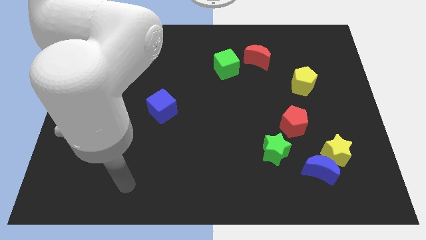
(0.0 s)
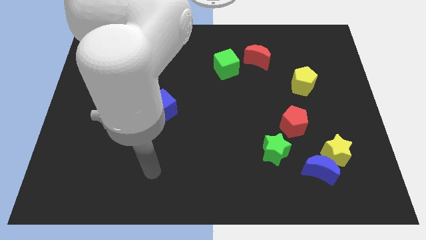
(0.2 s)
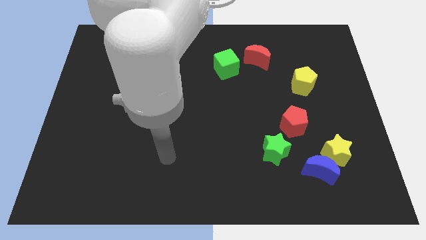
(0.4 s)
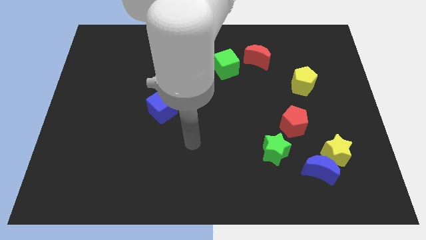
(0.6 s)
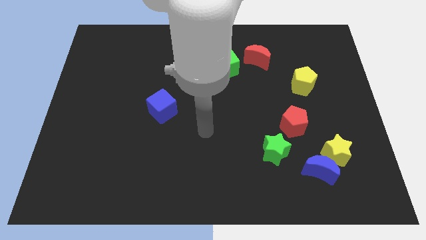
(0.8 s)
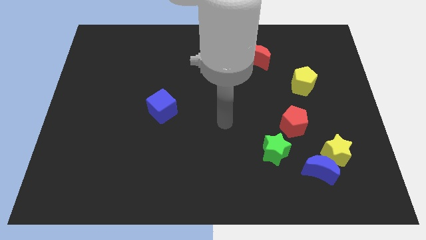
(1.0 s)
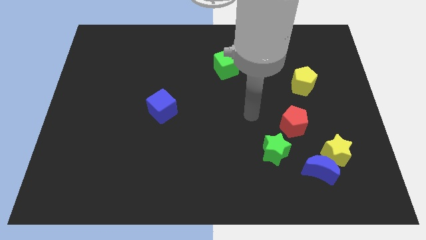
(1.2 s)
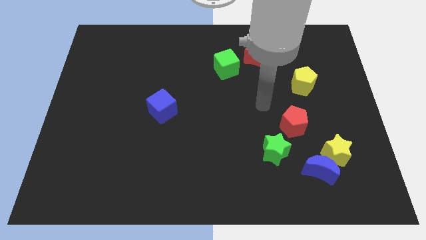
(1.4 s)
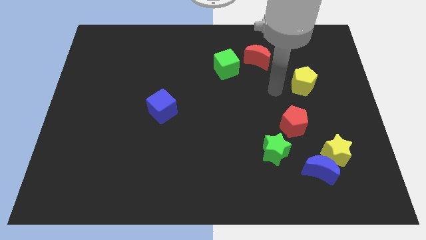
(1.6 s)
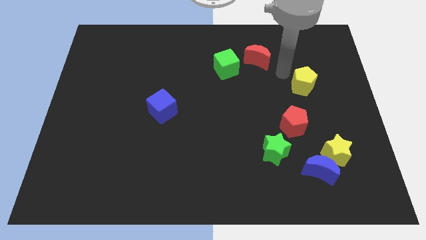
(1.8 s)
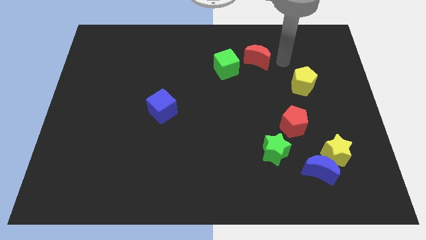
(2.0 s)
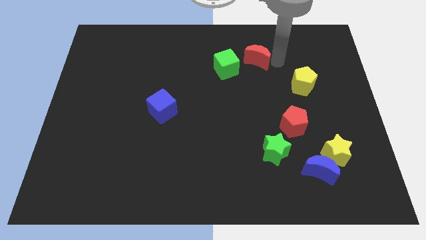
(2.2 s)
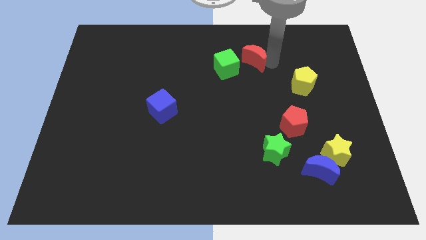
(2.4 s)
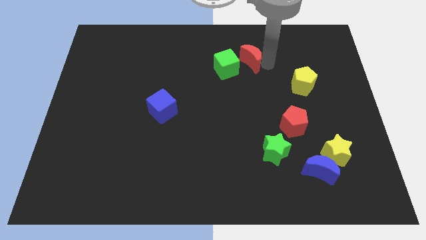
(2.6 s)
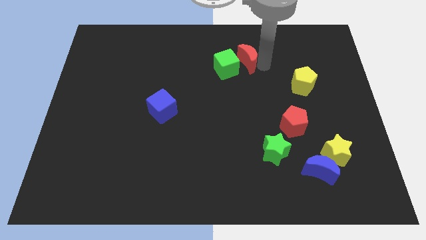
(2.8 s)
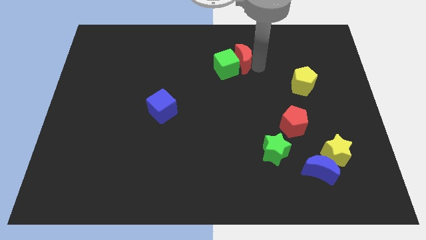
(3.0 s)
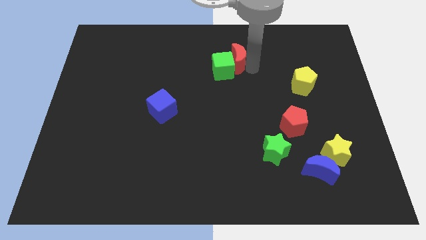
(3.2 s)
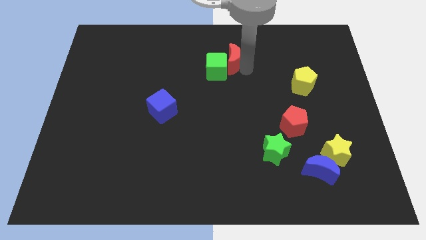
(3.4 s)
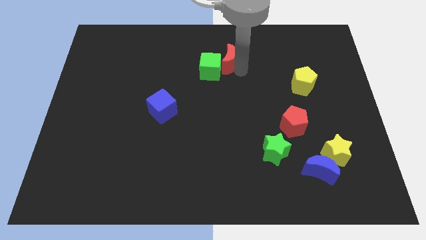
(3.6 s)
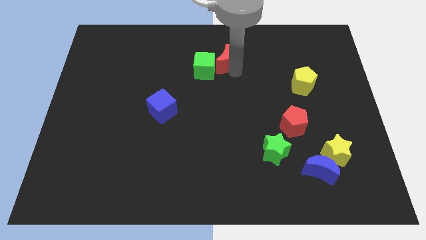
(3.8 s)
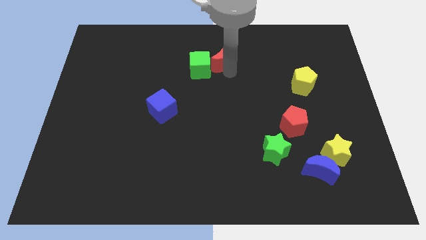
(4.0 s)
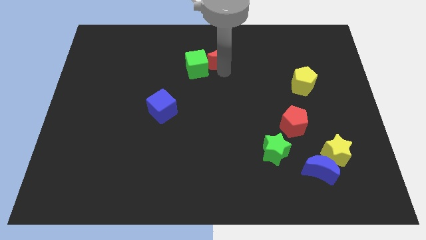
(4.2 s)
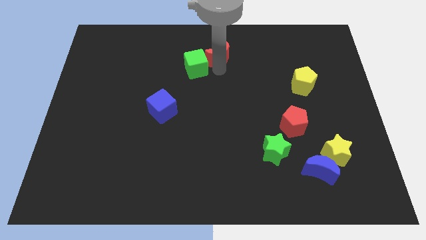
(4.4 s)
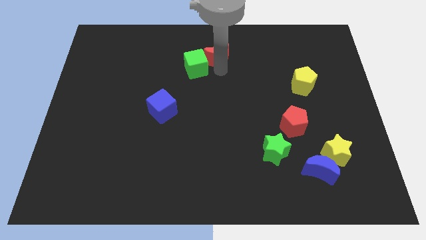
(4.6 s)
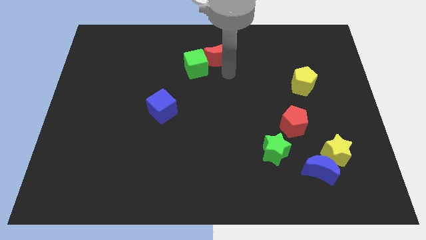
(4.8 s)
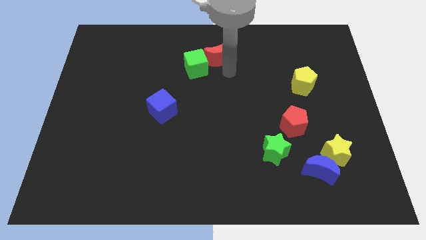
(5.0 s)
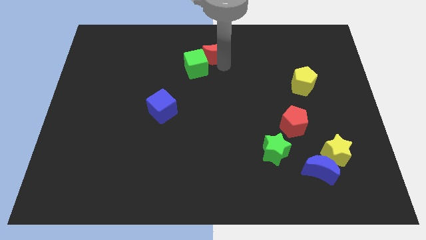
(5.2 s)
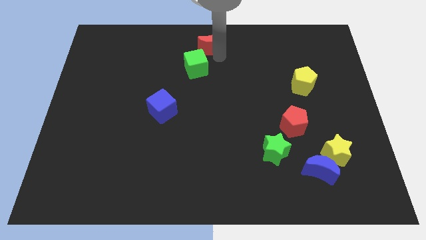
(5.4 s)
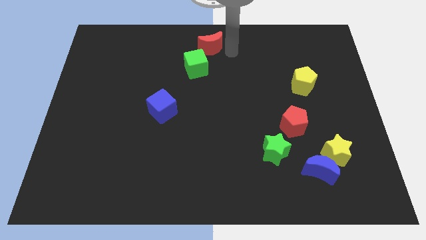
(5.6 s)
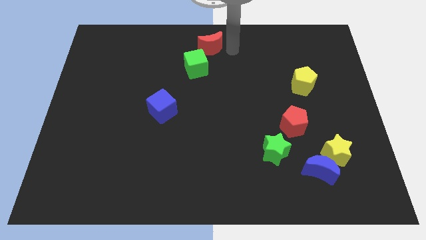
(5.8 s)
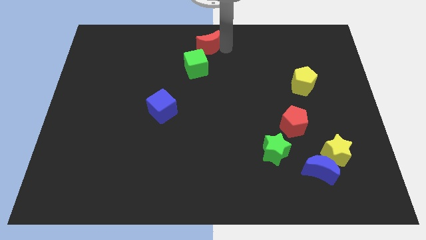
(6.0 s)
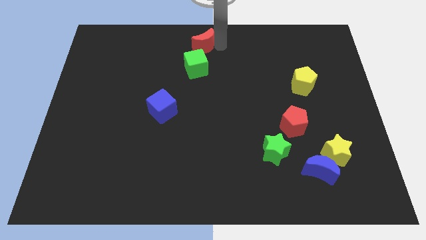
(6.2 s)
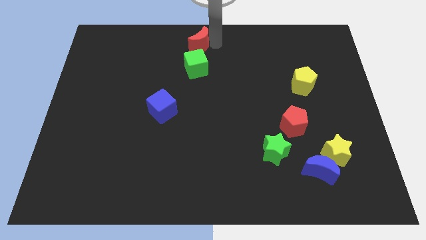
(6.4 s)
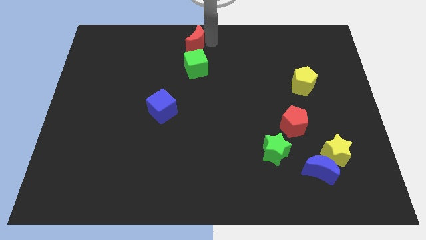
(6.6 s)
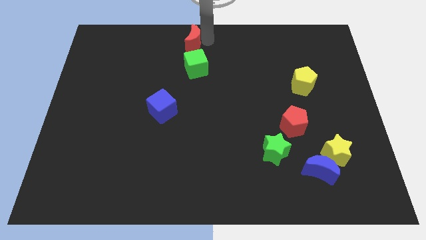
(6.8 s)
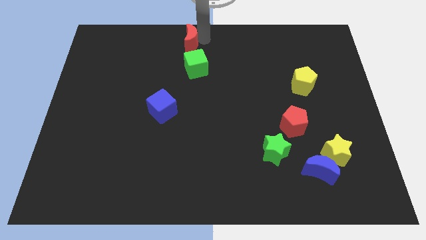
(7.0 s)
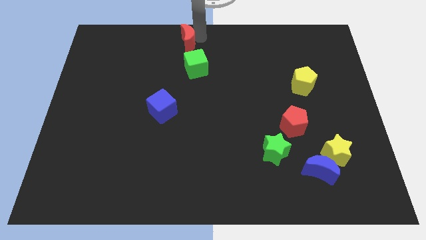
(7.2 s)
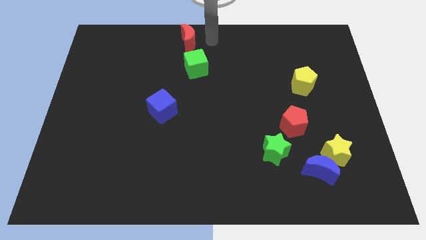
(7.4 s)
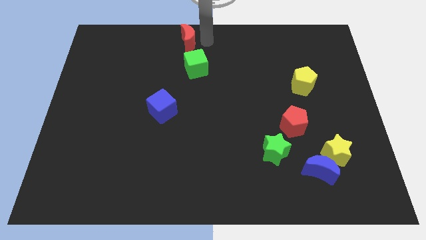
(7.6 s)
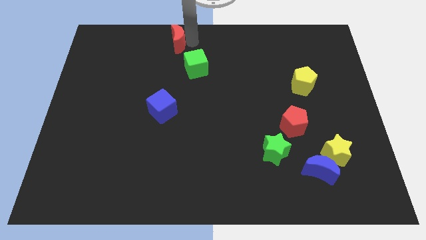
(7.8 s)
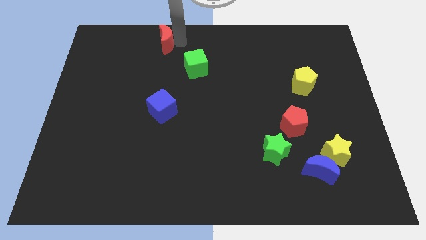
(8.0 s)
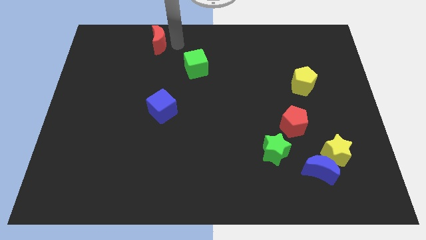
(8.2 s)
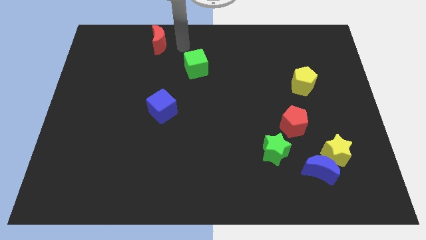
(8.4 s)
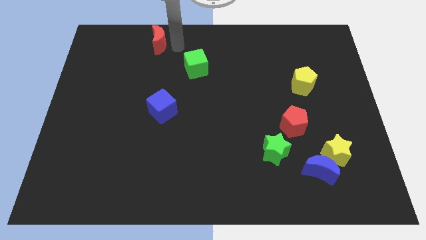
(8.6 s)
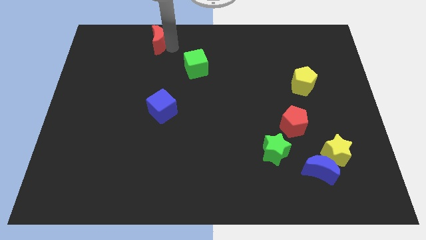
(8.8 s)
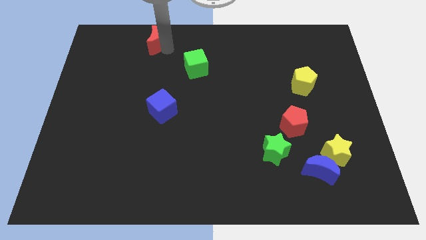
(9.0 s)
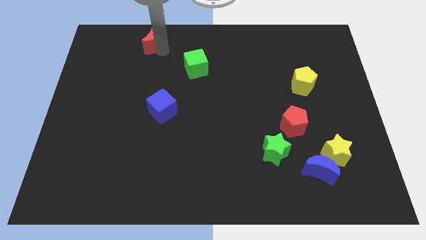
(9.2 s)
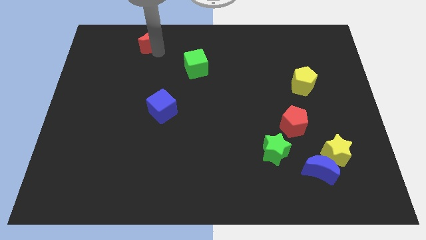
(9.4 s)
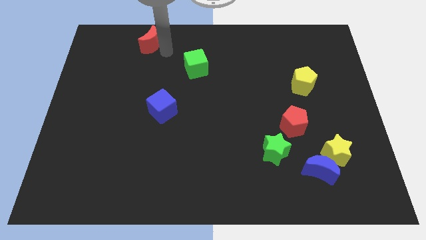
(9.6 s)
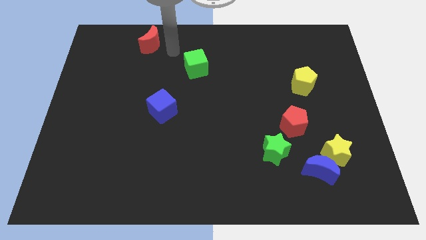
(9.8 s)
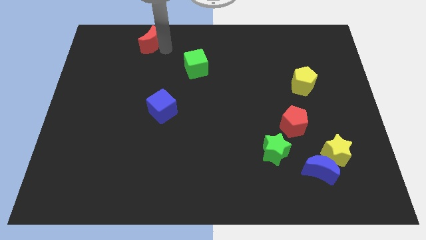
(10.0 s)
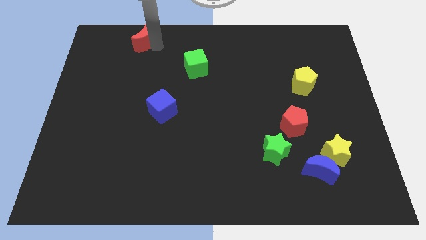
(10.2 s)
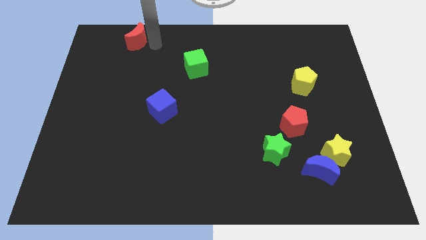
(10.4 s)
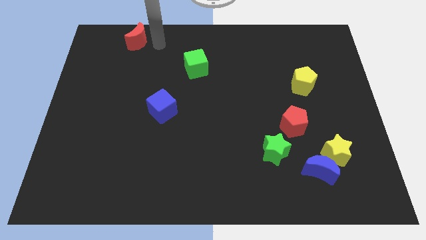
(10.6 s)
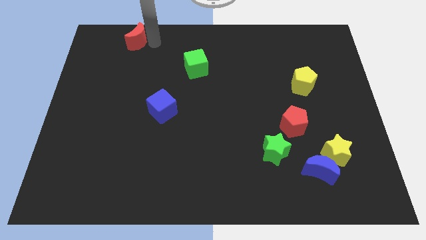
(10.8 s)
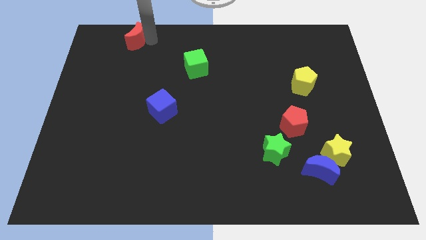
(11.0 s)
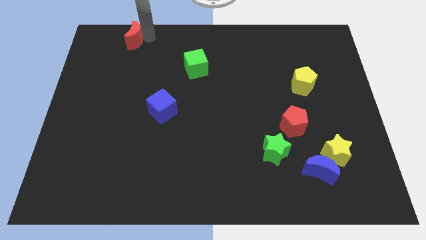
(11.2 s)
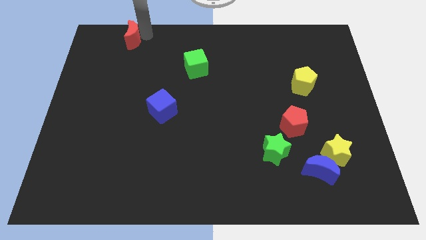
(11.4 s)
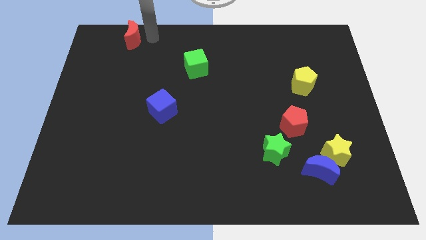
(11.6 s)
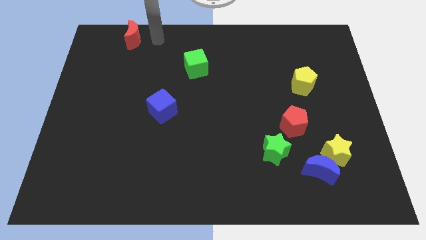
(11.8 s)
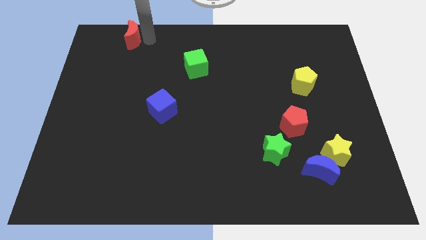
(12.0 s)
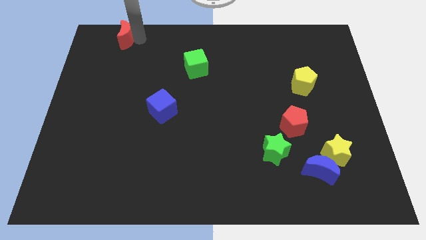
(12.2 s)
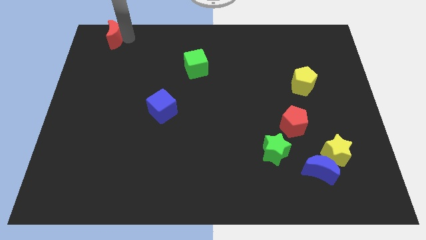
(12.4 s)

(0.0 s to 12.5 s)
slide the red moon to the upper left corner
